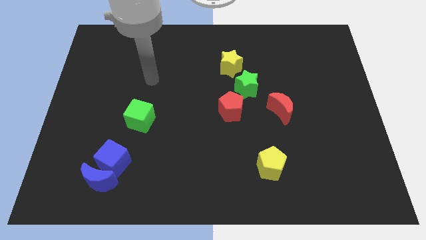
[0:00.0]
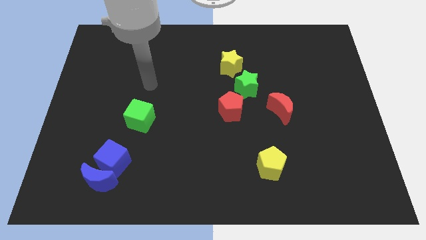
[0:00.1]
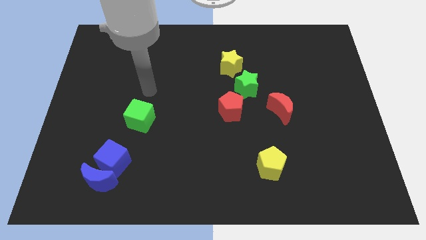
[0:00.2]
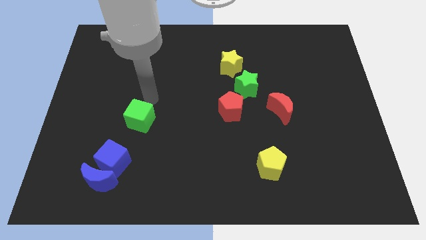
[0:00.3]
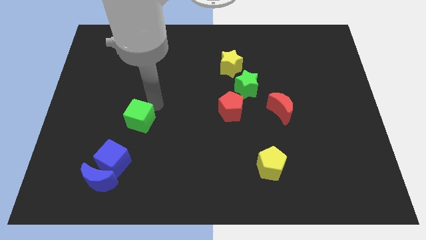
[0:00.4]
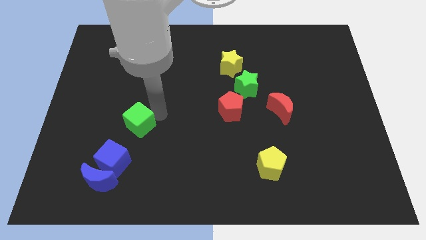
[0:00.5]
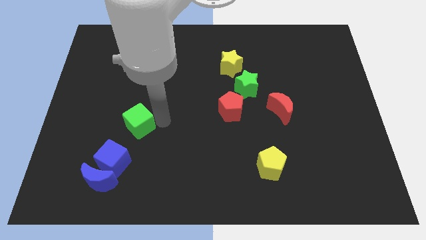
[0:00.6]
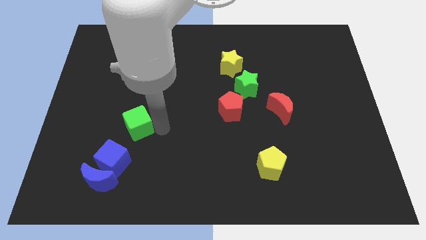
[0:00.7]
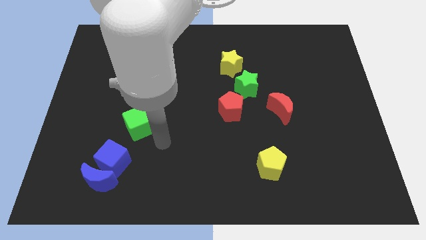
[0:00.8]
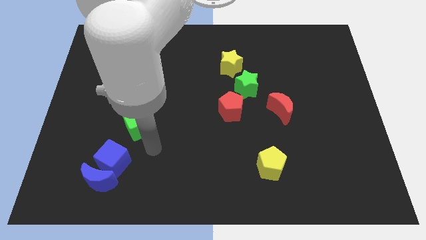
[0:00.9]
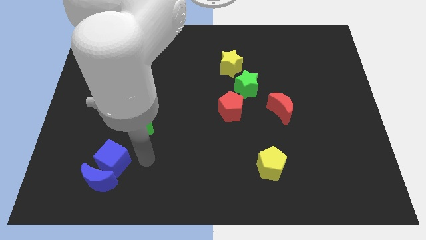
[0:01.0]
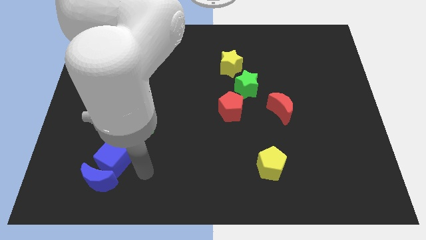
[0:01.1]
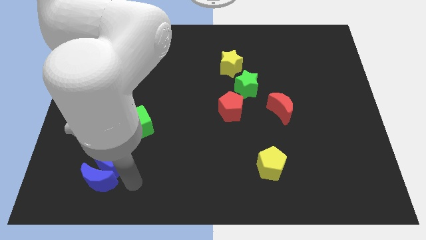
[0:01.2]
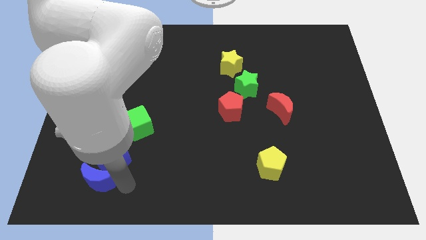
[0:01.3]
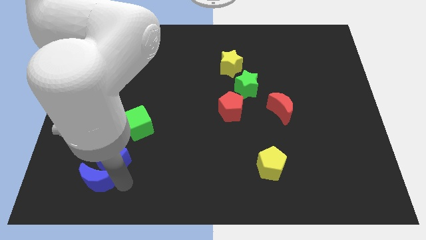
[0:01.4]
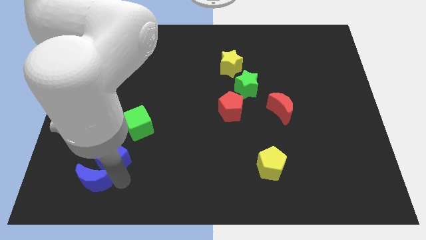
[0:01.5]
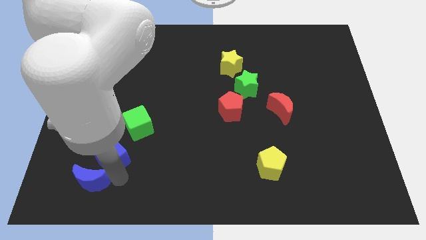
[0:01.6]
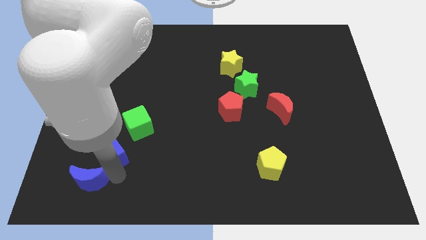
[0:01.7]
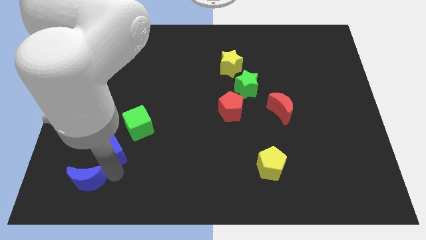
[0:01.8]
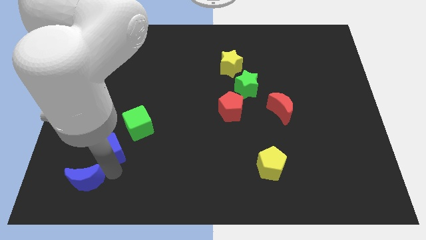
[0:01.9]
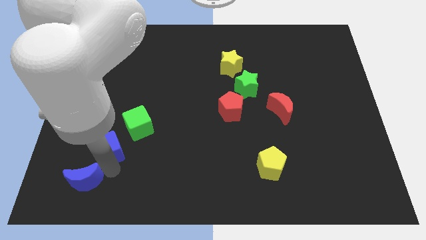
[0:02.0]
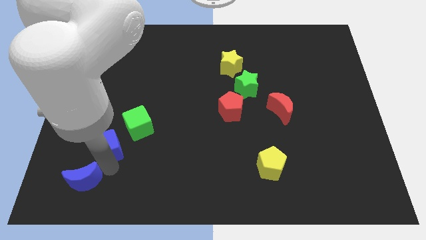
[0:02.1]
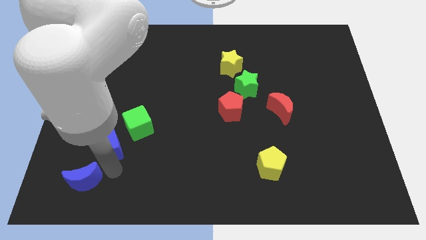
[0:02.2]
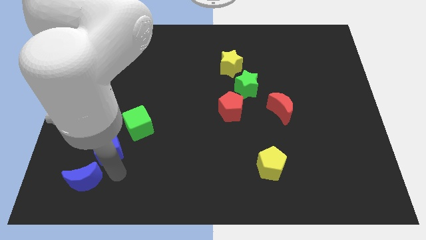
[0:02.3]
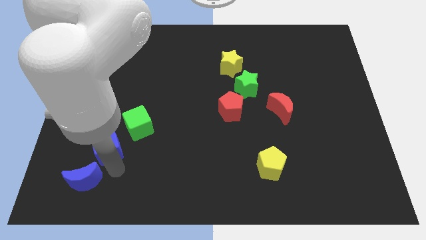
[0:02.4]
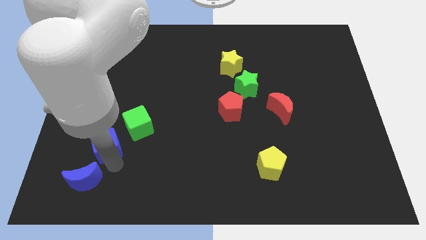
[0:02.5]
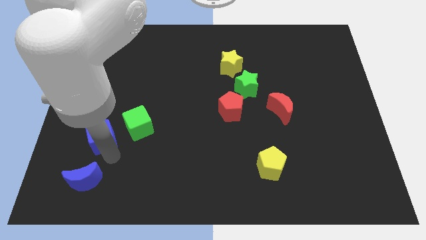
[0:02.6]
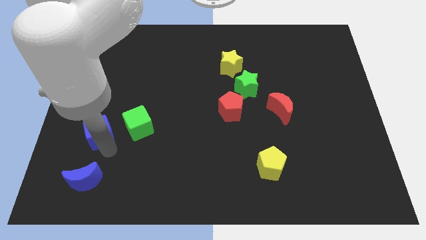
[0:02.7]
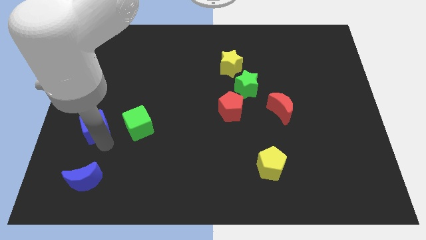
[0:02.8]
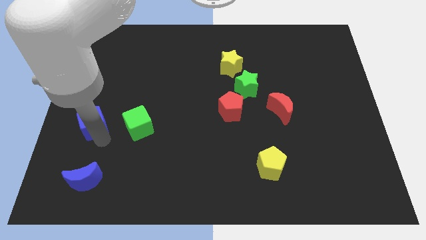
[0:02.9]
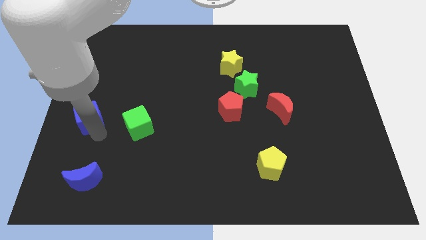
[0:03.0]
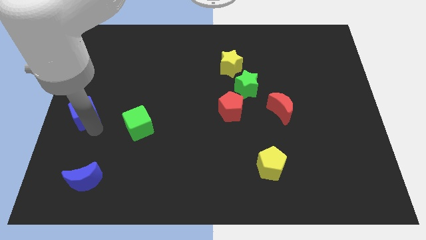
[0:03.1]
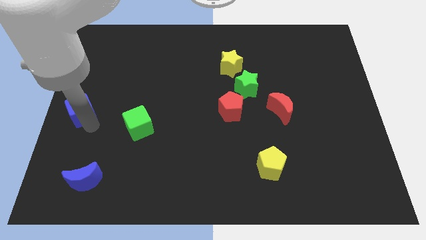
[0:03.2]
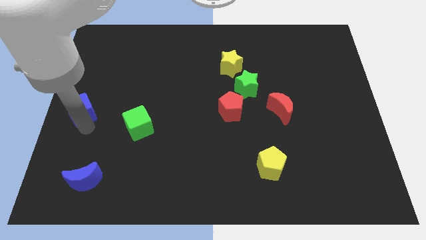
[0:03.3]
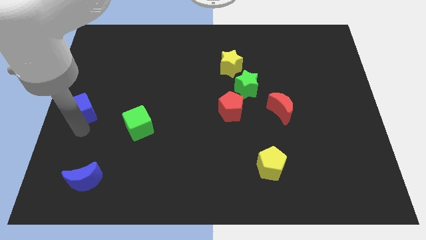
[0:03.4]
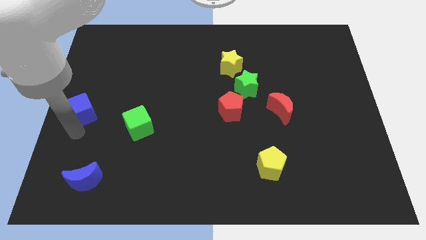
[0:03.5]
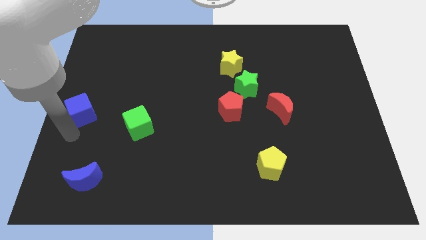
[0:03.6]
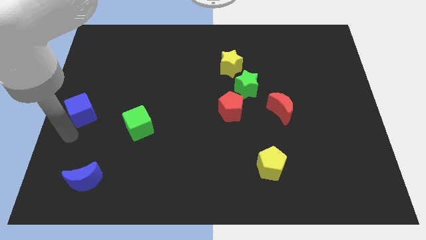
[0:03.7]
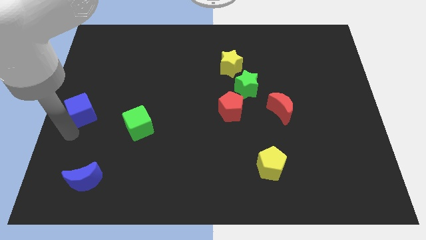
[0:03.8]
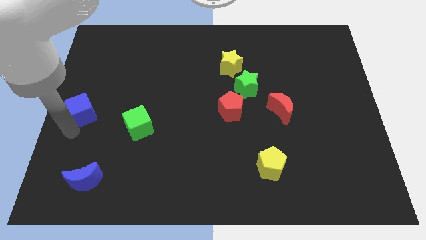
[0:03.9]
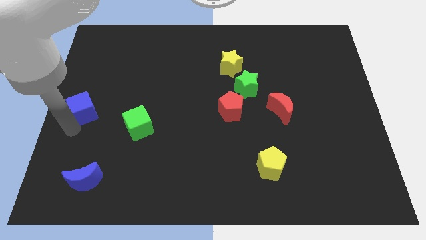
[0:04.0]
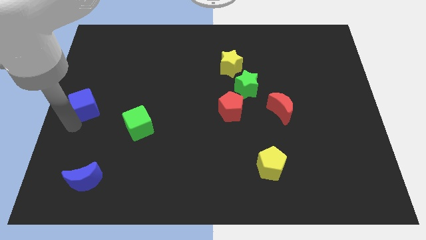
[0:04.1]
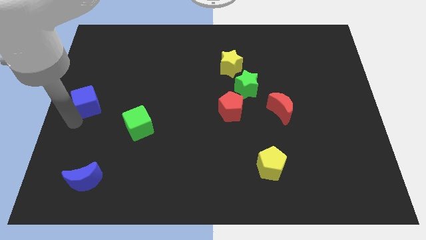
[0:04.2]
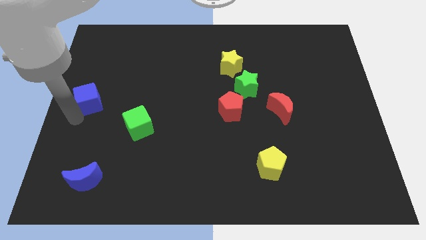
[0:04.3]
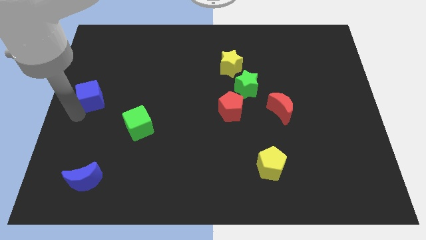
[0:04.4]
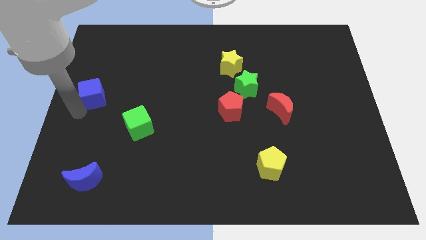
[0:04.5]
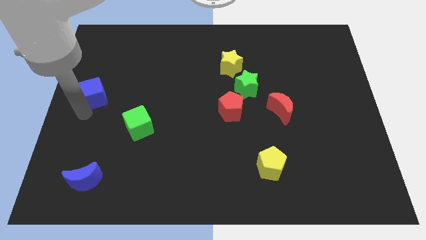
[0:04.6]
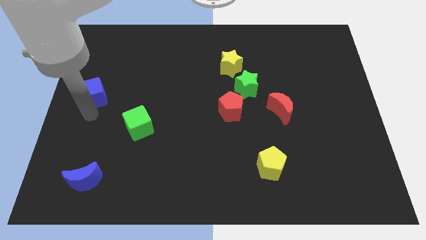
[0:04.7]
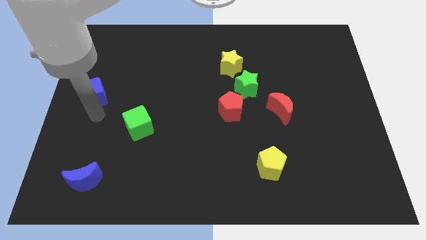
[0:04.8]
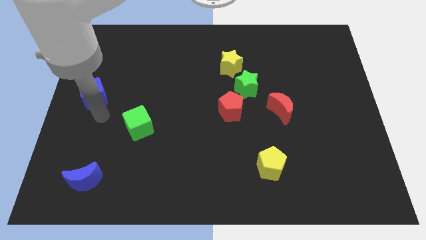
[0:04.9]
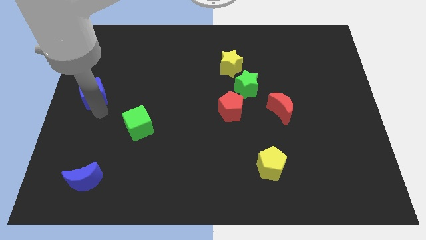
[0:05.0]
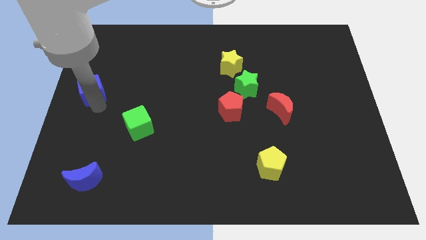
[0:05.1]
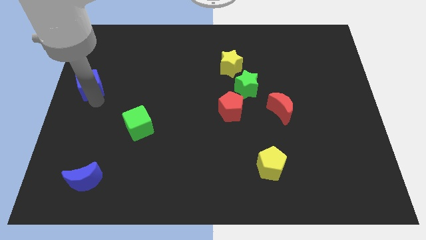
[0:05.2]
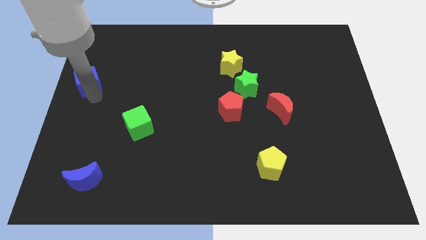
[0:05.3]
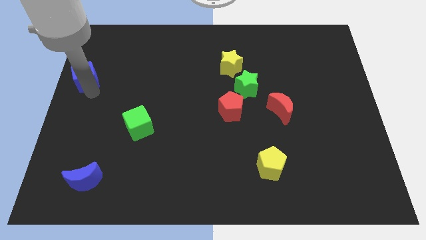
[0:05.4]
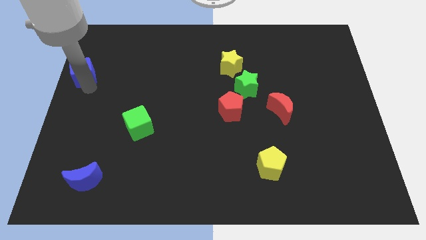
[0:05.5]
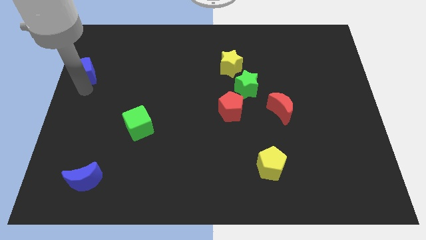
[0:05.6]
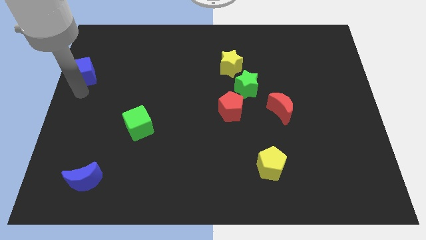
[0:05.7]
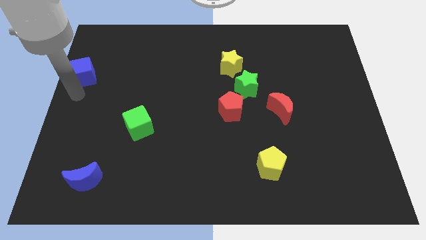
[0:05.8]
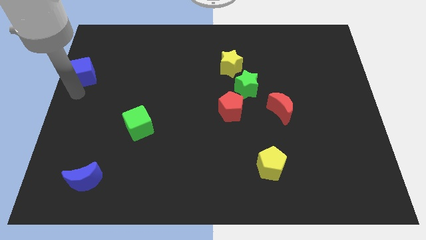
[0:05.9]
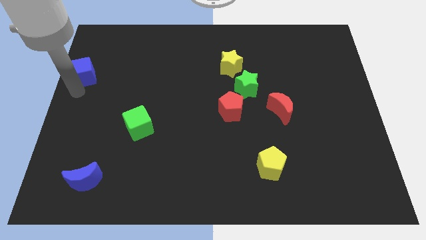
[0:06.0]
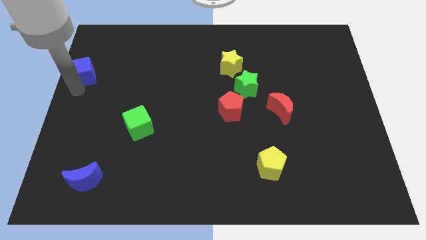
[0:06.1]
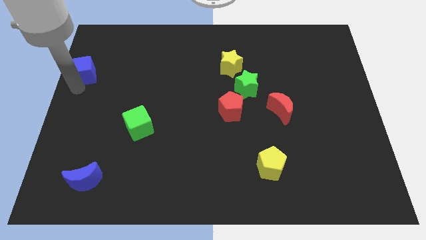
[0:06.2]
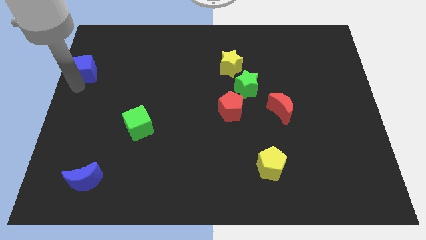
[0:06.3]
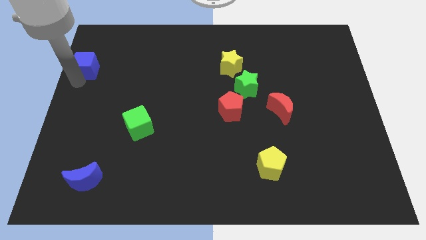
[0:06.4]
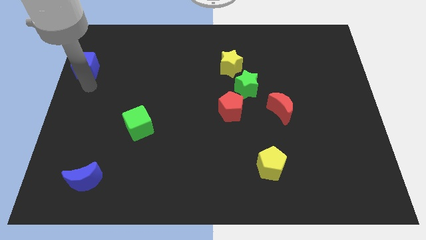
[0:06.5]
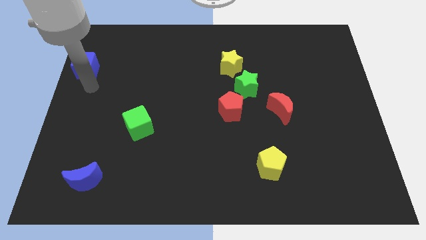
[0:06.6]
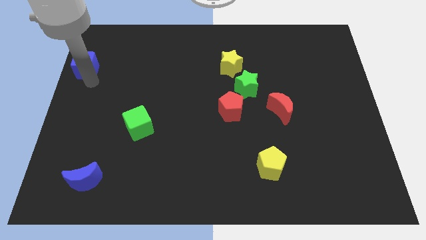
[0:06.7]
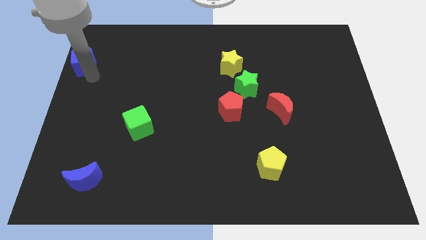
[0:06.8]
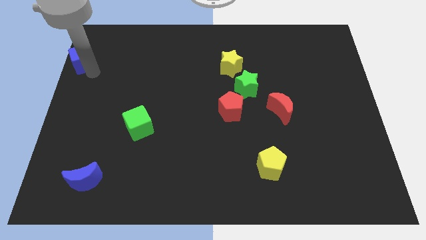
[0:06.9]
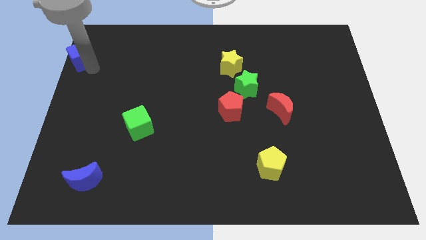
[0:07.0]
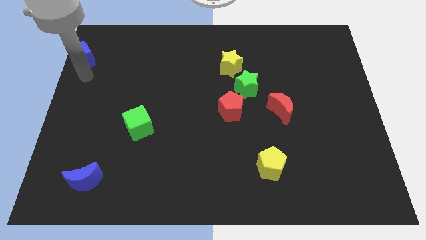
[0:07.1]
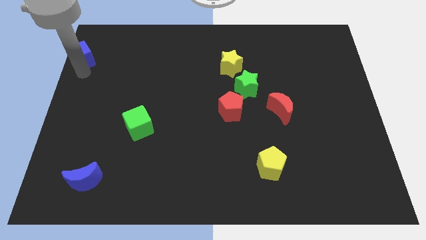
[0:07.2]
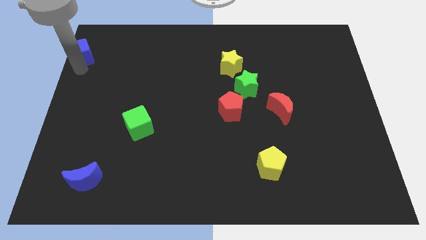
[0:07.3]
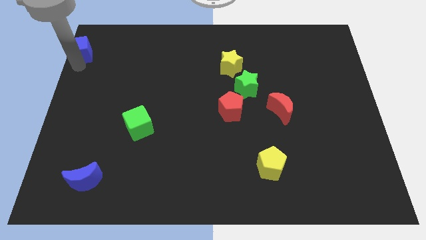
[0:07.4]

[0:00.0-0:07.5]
slide the blue cube to the top left
